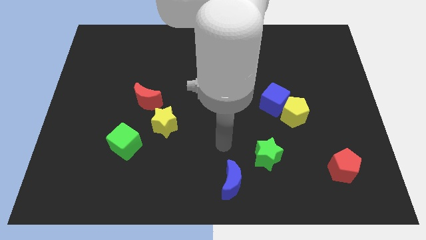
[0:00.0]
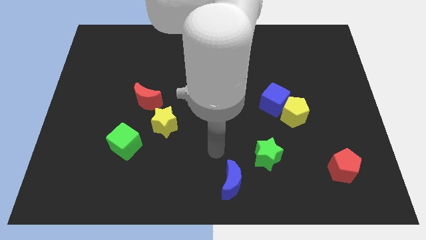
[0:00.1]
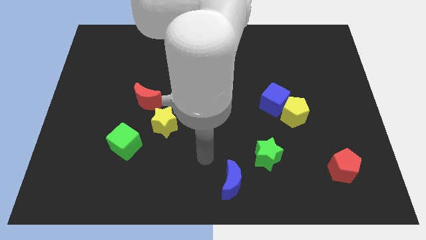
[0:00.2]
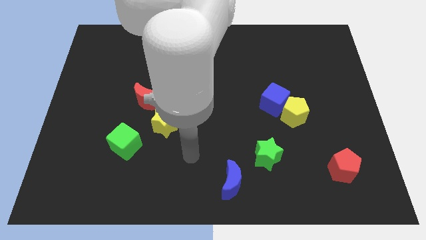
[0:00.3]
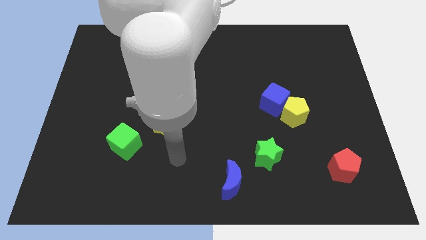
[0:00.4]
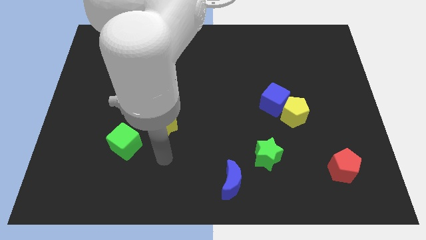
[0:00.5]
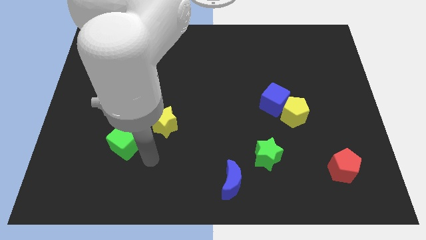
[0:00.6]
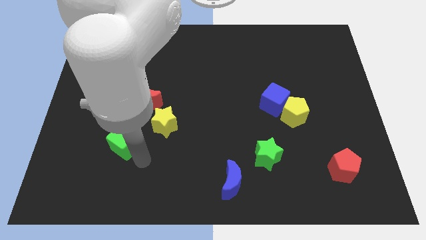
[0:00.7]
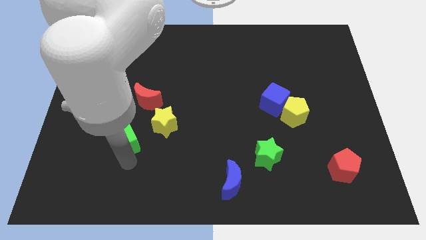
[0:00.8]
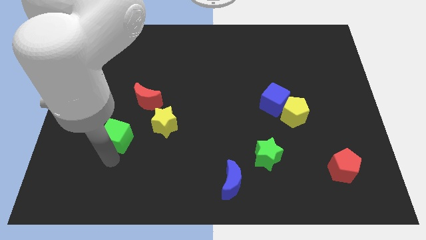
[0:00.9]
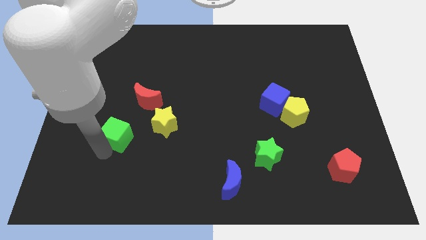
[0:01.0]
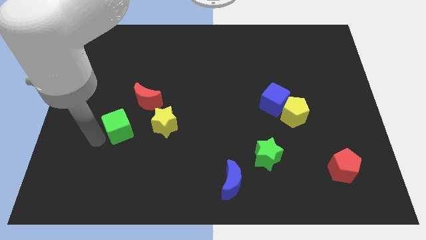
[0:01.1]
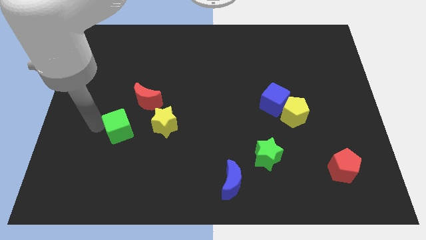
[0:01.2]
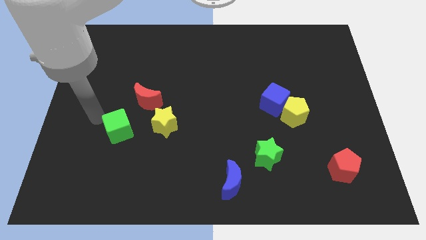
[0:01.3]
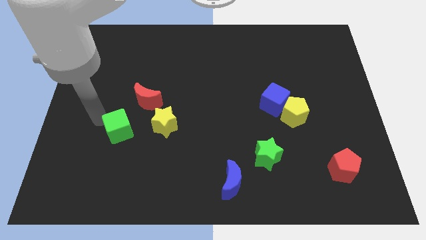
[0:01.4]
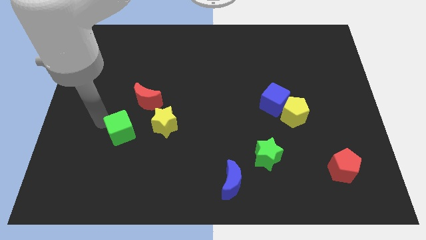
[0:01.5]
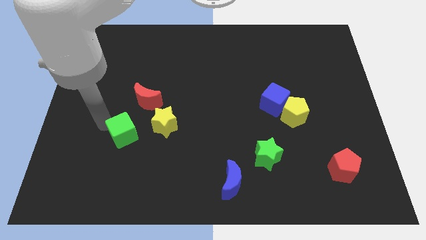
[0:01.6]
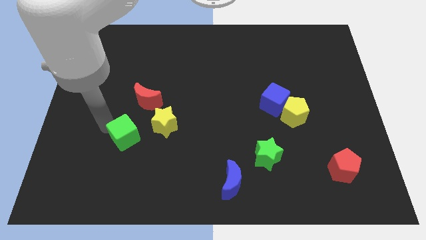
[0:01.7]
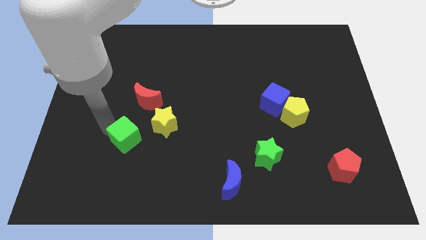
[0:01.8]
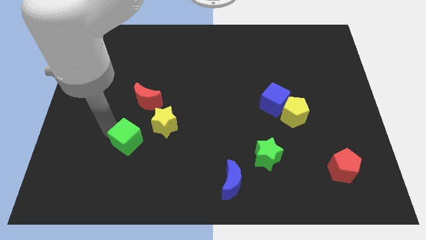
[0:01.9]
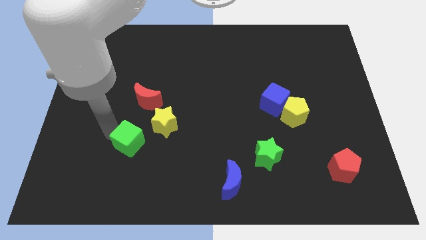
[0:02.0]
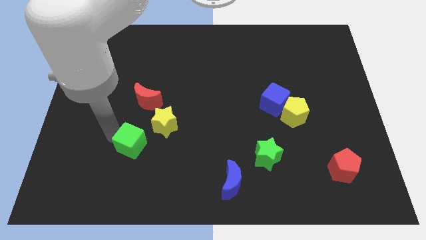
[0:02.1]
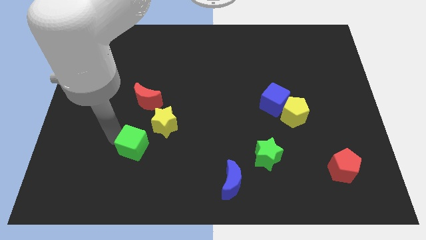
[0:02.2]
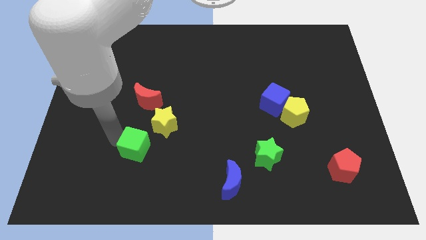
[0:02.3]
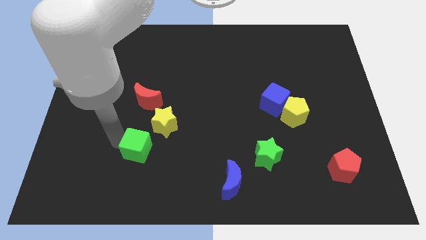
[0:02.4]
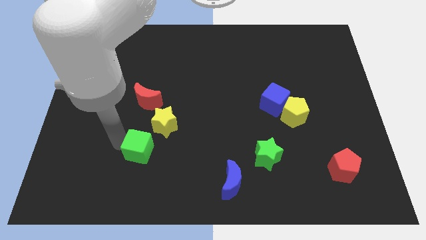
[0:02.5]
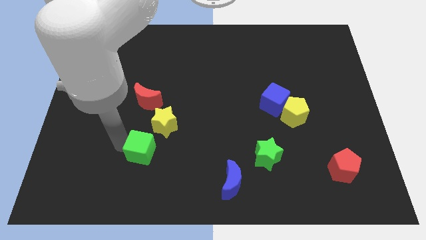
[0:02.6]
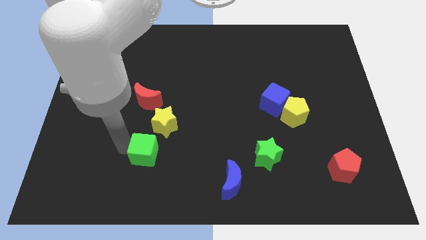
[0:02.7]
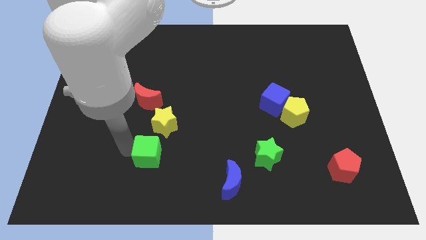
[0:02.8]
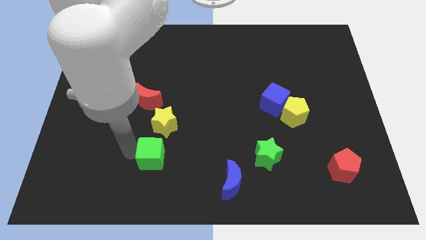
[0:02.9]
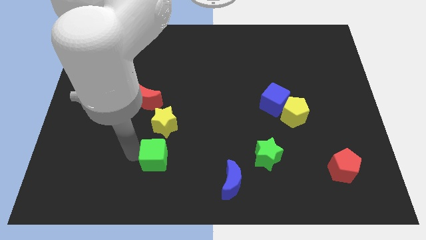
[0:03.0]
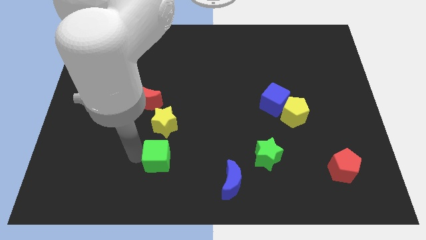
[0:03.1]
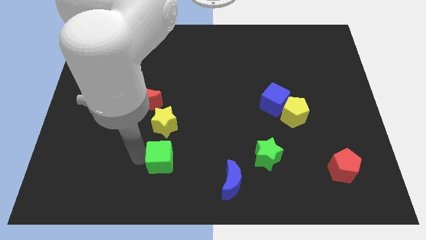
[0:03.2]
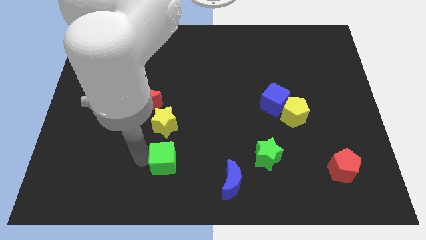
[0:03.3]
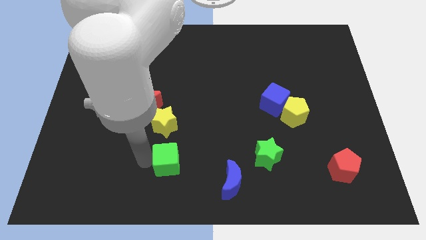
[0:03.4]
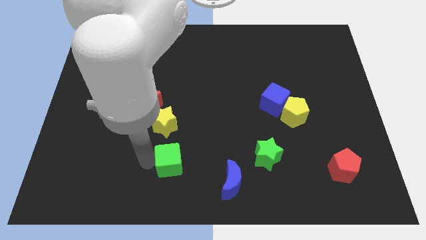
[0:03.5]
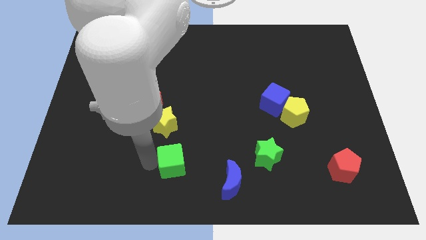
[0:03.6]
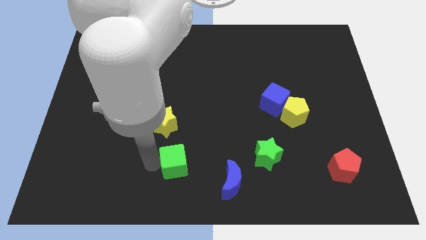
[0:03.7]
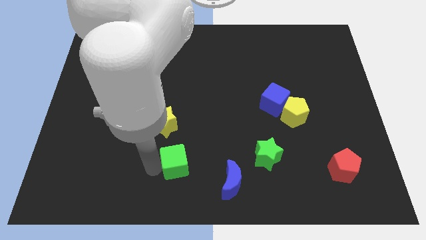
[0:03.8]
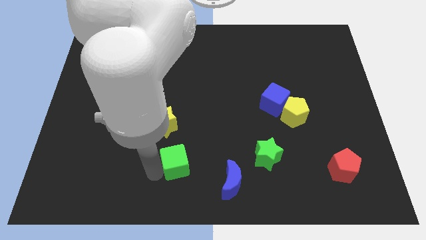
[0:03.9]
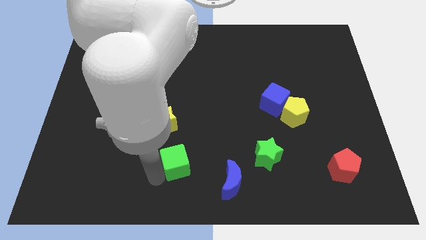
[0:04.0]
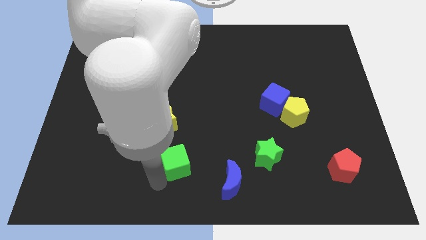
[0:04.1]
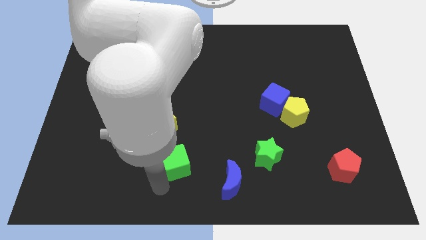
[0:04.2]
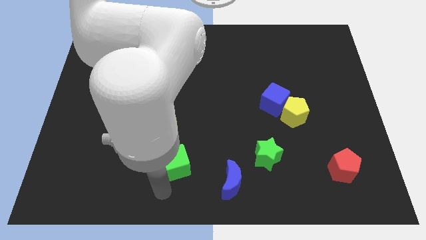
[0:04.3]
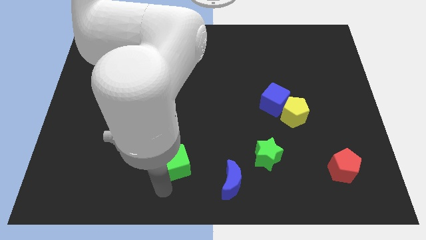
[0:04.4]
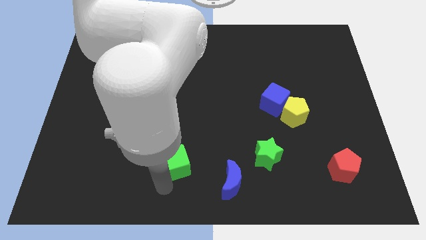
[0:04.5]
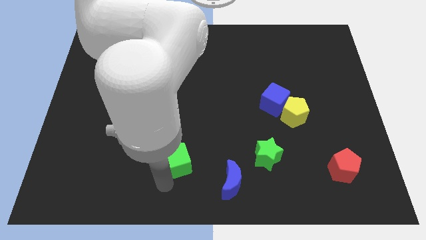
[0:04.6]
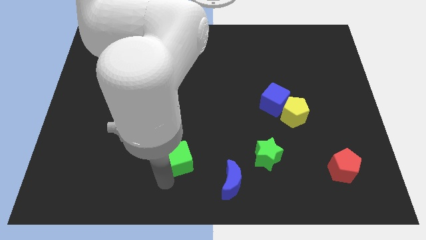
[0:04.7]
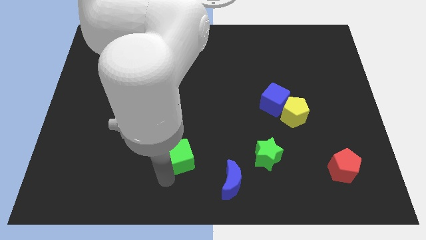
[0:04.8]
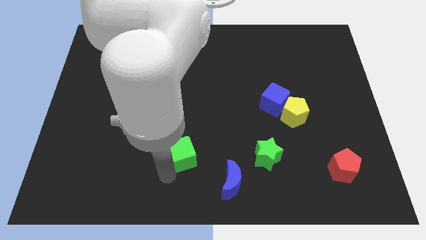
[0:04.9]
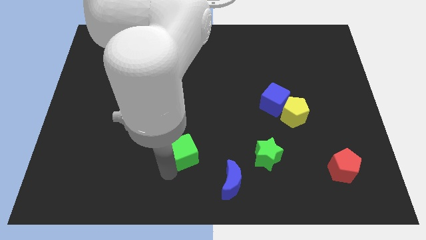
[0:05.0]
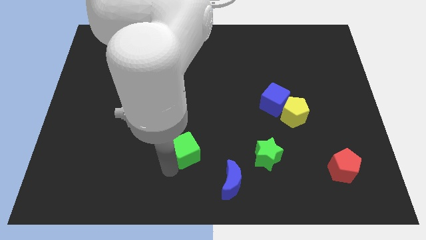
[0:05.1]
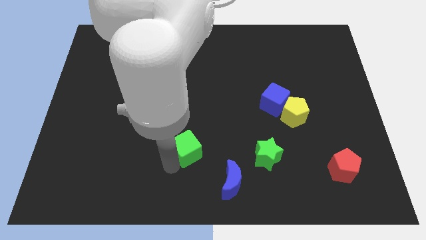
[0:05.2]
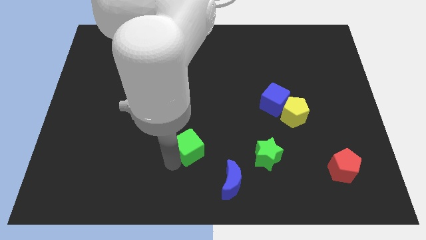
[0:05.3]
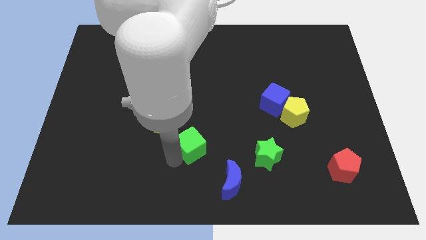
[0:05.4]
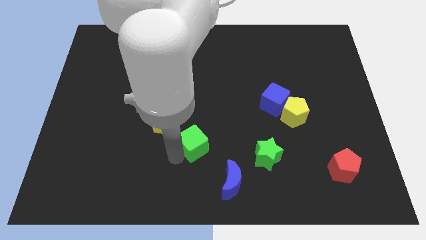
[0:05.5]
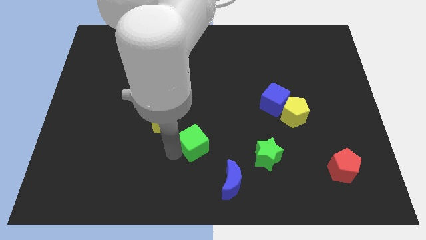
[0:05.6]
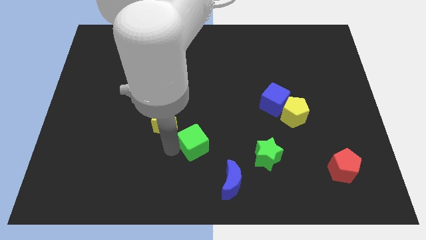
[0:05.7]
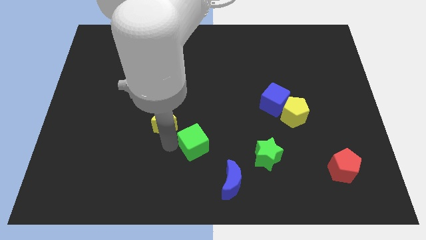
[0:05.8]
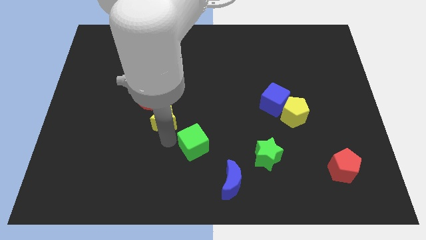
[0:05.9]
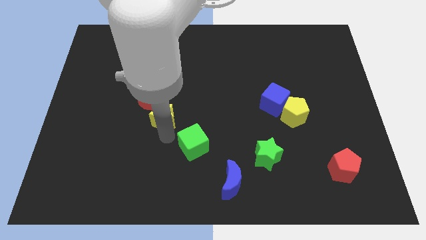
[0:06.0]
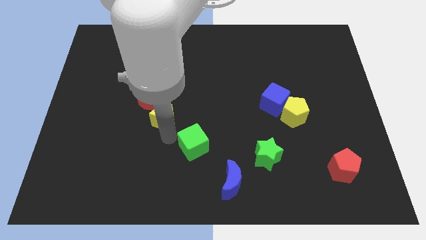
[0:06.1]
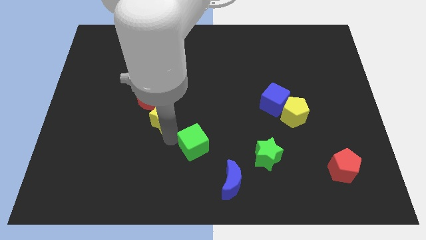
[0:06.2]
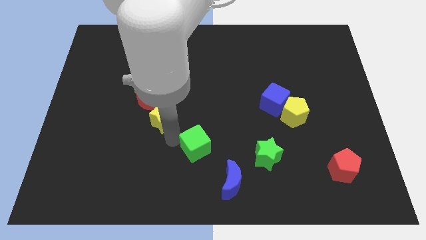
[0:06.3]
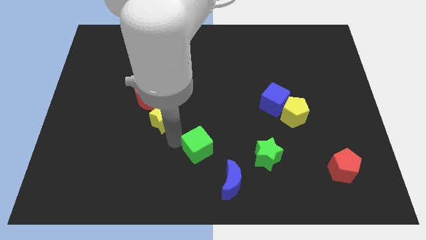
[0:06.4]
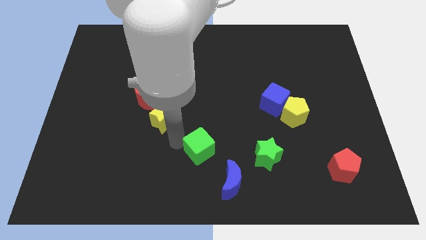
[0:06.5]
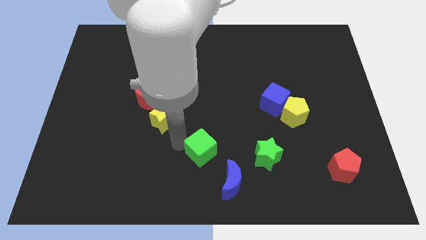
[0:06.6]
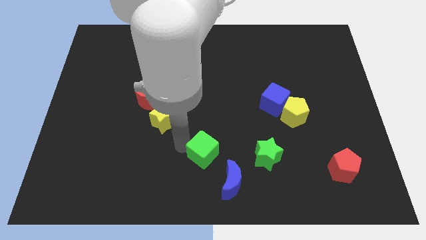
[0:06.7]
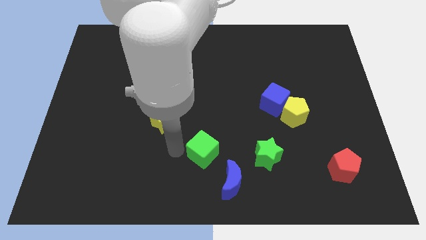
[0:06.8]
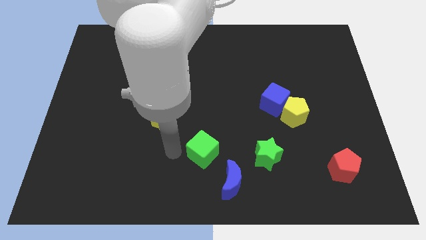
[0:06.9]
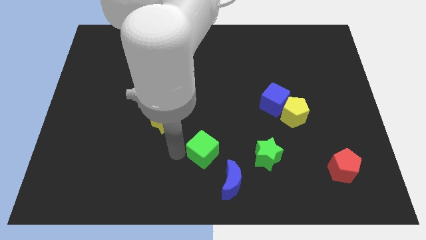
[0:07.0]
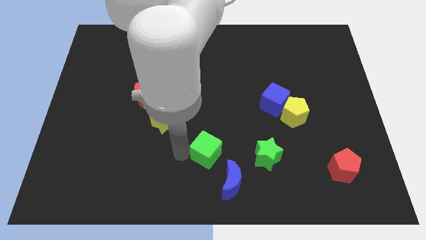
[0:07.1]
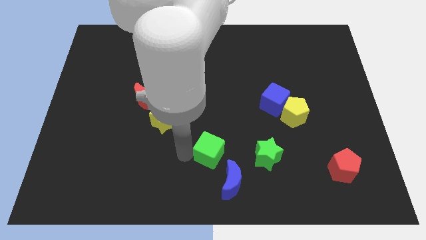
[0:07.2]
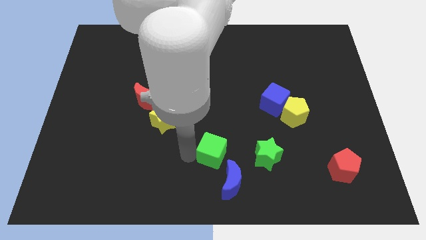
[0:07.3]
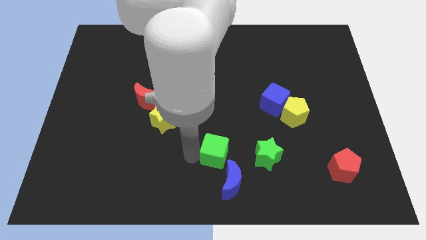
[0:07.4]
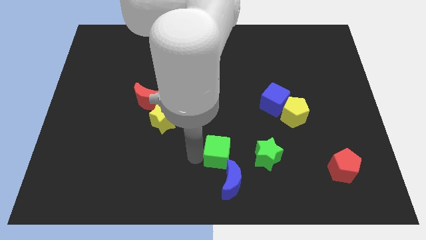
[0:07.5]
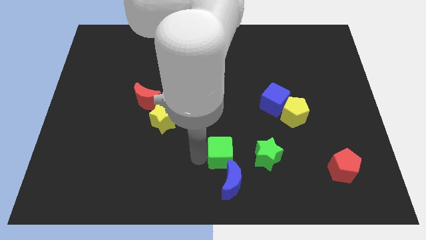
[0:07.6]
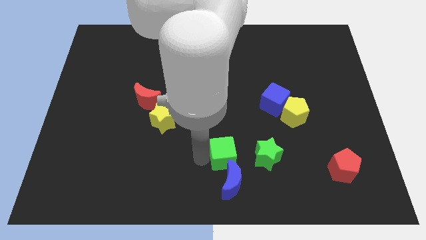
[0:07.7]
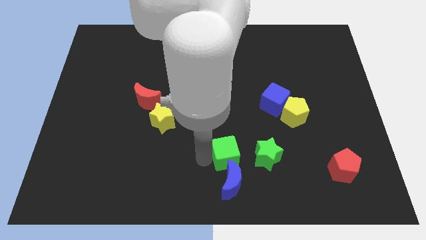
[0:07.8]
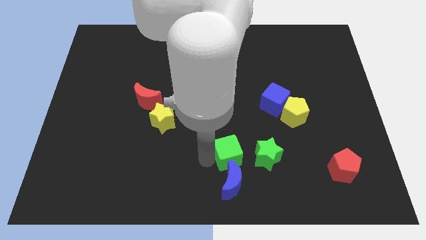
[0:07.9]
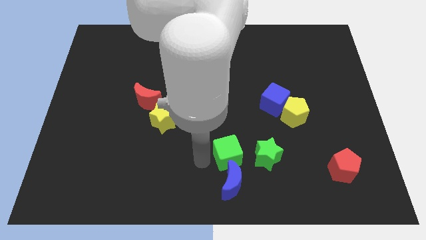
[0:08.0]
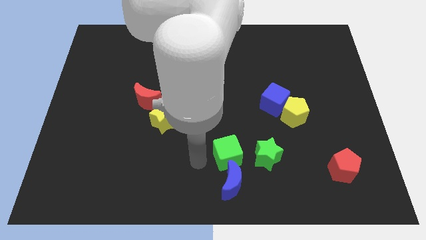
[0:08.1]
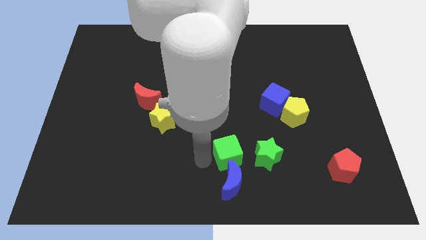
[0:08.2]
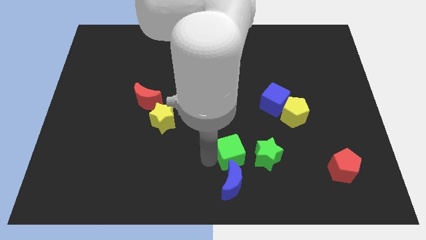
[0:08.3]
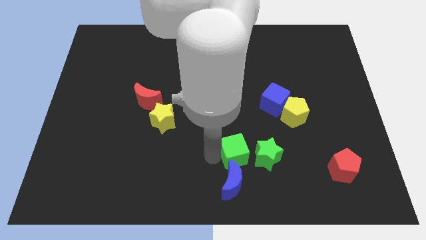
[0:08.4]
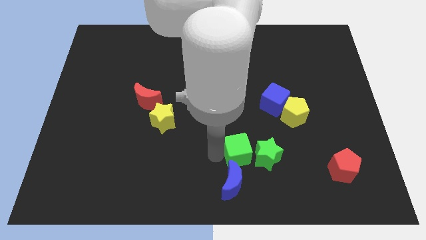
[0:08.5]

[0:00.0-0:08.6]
push the green cube towards the green star
